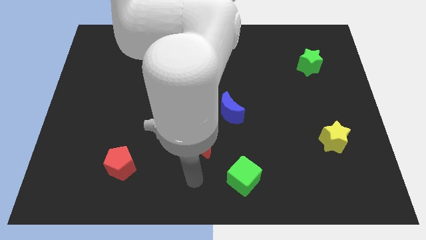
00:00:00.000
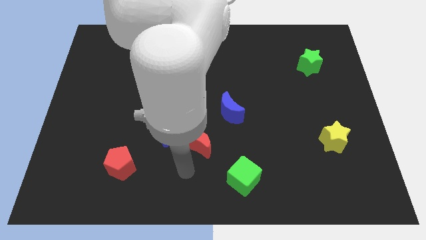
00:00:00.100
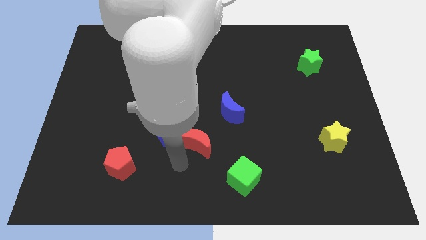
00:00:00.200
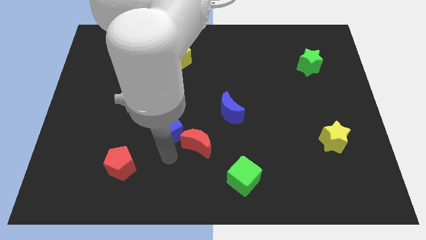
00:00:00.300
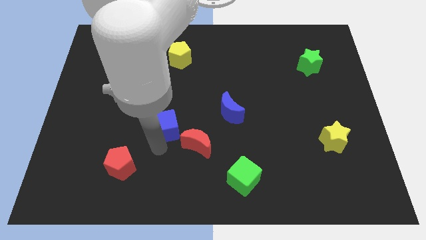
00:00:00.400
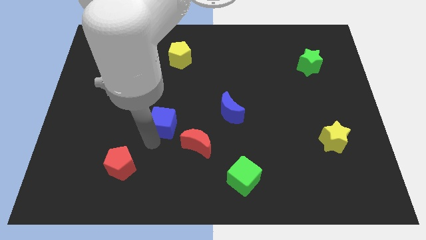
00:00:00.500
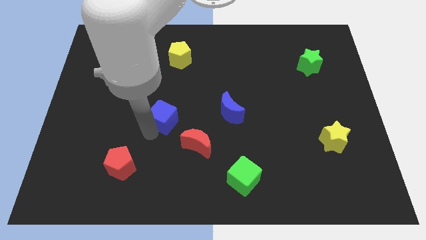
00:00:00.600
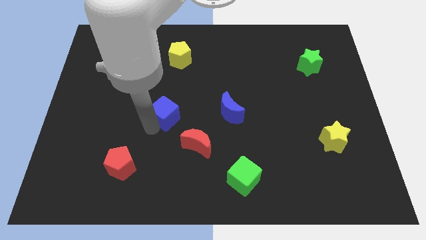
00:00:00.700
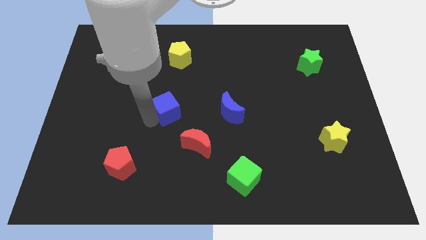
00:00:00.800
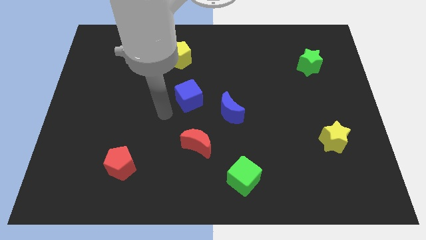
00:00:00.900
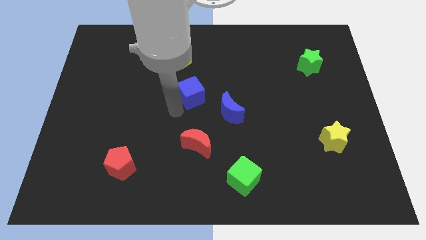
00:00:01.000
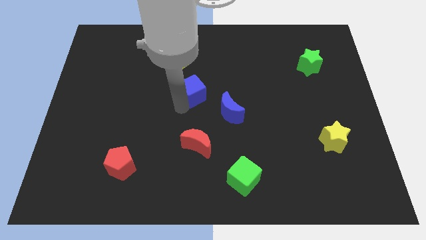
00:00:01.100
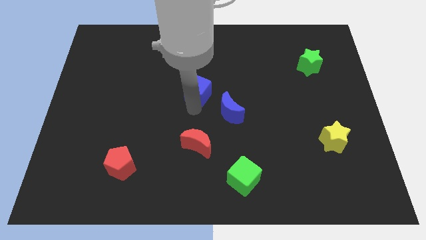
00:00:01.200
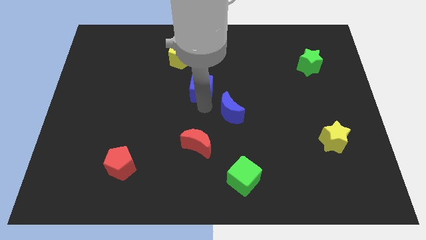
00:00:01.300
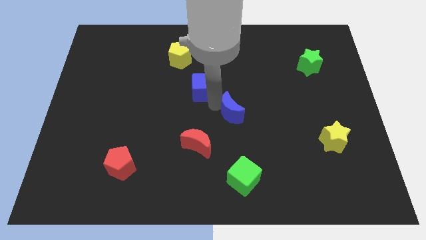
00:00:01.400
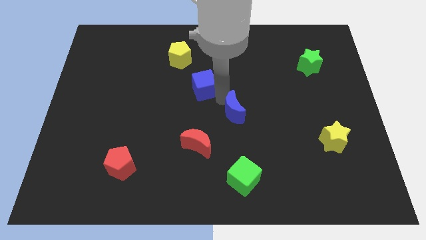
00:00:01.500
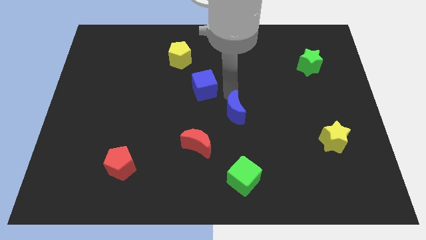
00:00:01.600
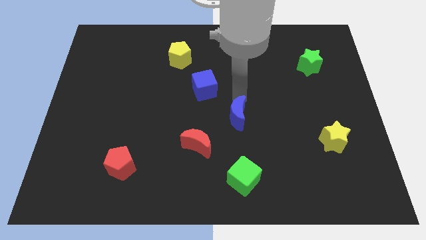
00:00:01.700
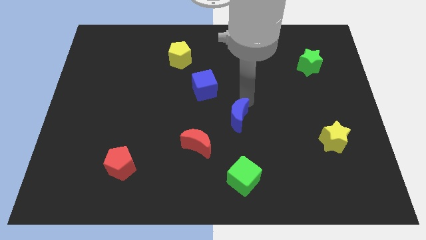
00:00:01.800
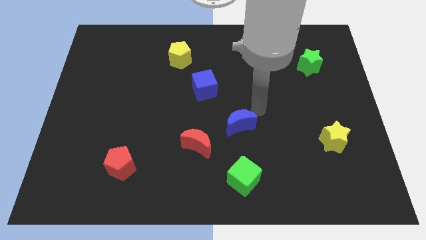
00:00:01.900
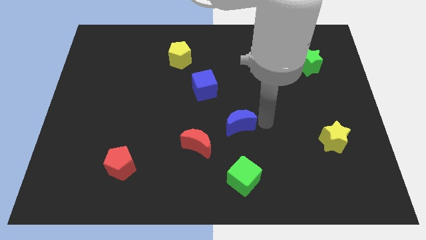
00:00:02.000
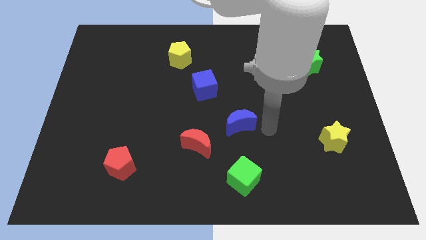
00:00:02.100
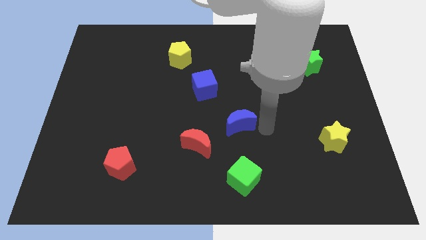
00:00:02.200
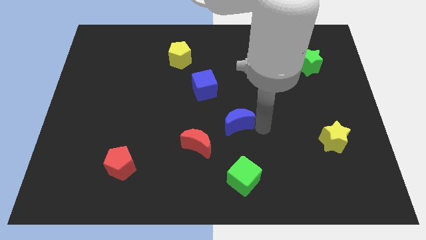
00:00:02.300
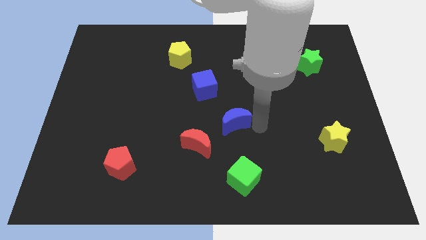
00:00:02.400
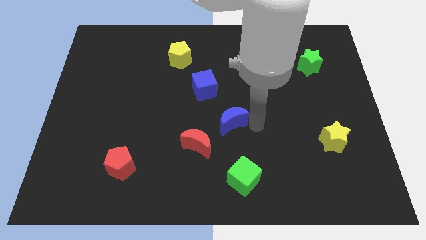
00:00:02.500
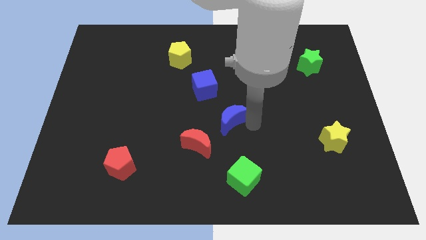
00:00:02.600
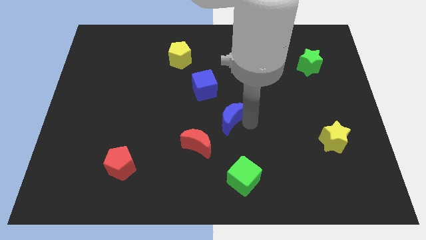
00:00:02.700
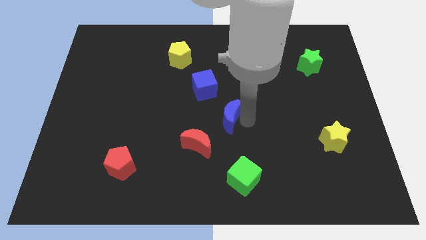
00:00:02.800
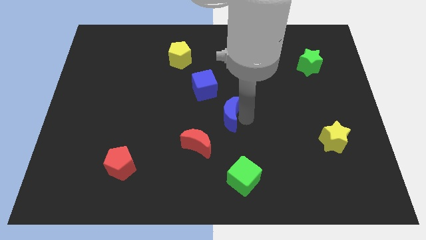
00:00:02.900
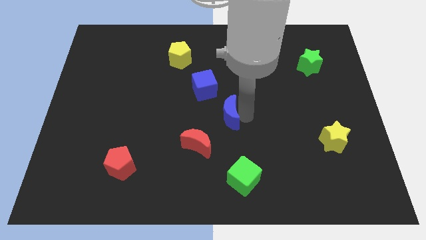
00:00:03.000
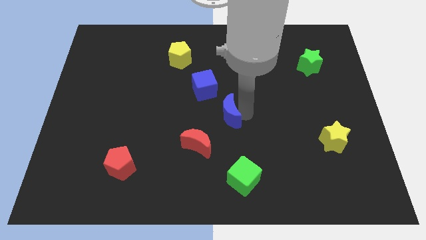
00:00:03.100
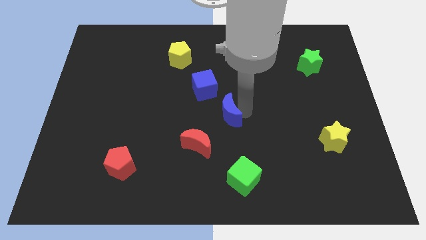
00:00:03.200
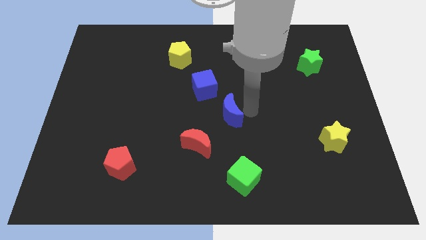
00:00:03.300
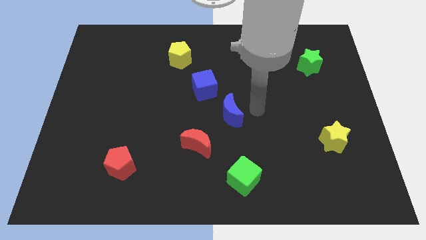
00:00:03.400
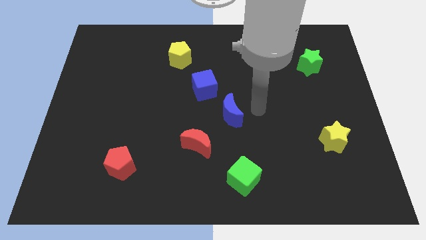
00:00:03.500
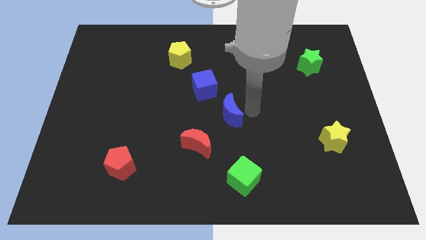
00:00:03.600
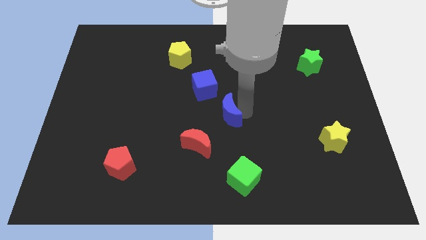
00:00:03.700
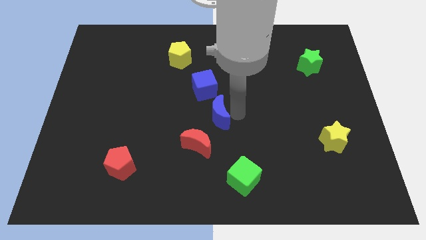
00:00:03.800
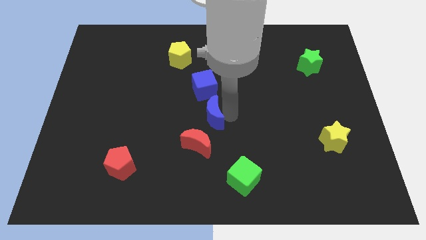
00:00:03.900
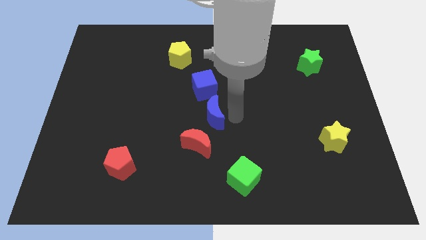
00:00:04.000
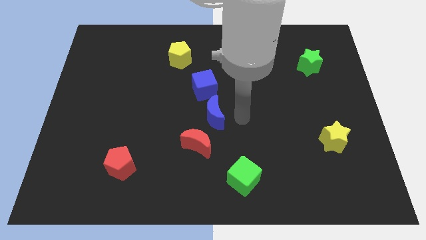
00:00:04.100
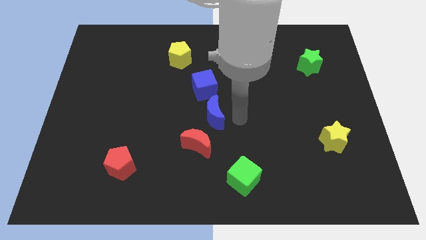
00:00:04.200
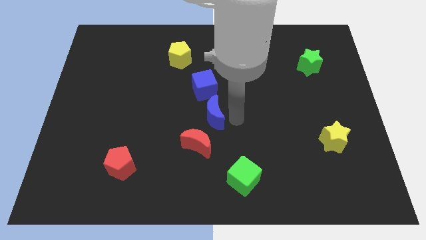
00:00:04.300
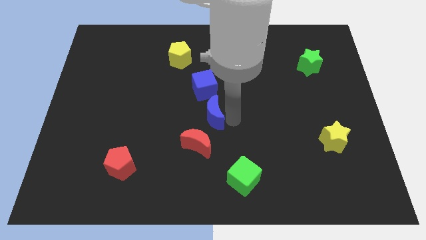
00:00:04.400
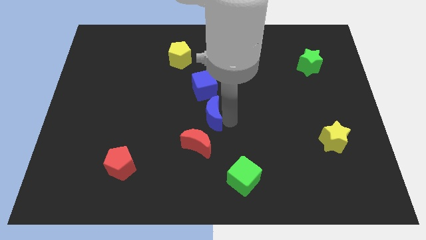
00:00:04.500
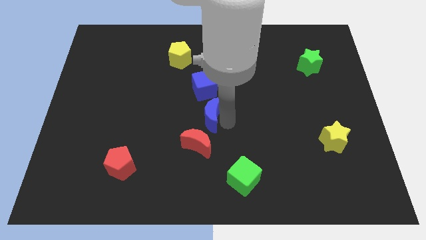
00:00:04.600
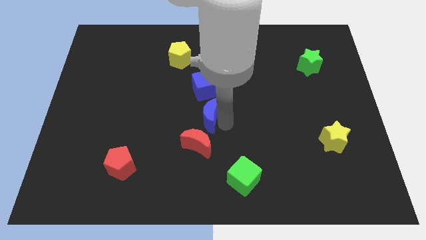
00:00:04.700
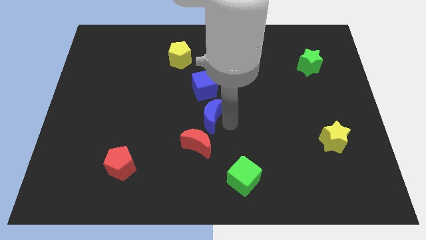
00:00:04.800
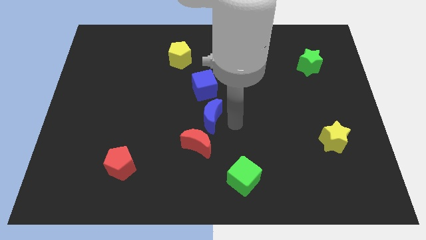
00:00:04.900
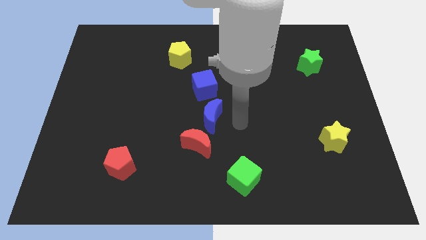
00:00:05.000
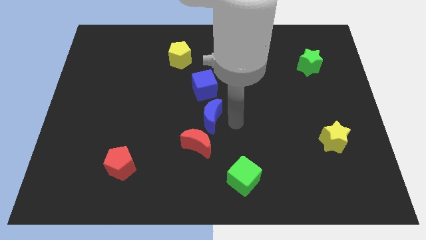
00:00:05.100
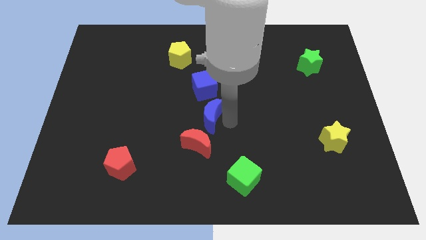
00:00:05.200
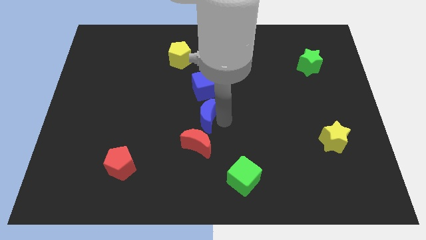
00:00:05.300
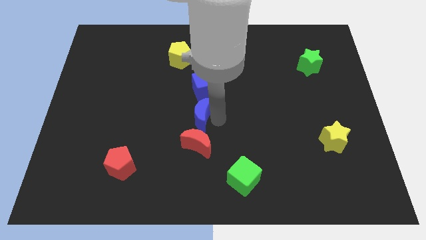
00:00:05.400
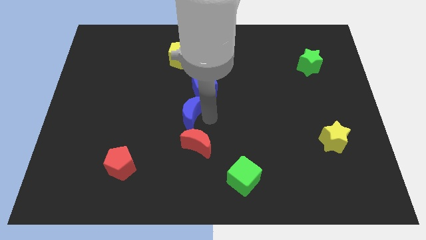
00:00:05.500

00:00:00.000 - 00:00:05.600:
slightly slide the blue moon to the left

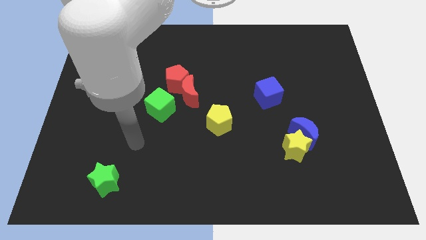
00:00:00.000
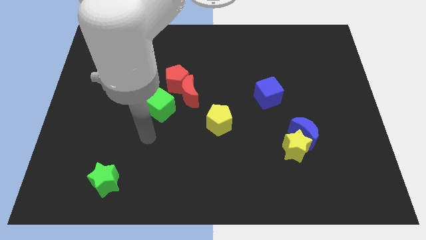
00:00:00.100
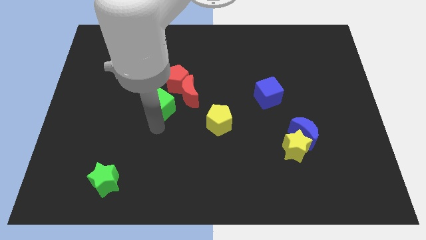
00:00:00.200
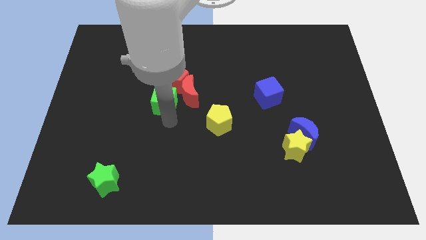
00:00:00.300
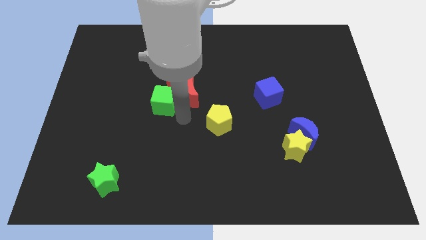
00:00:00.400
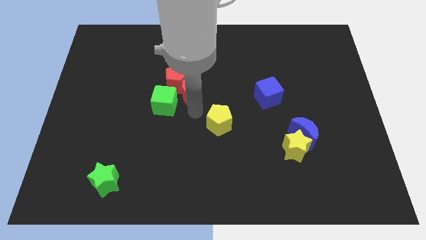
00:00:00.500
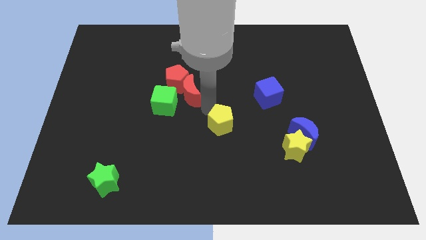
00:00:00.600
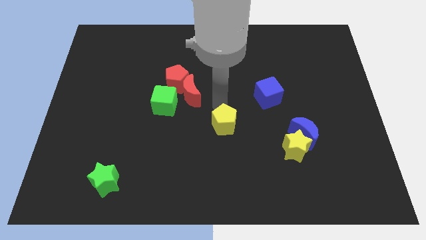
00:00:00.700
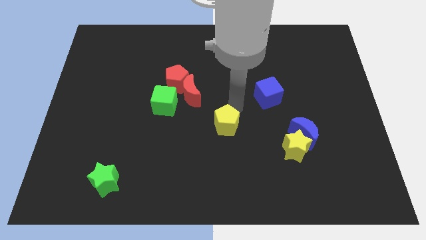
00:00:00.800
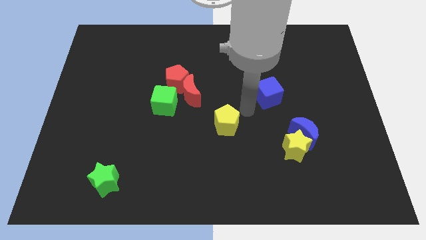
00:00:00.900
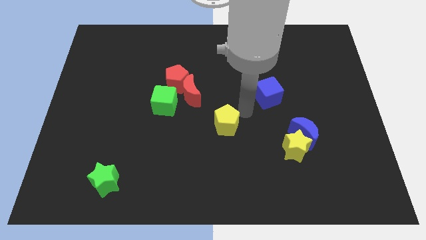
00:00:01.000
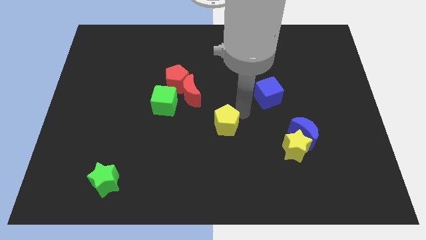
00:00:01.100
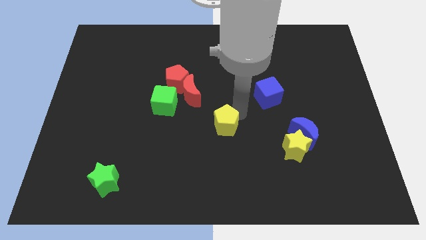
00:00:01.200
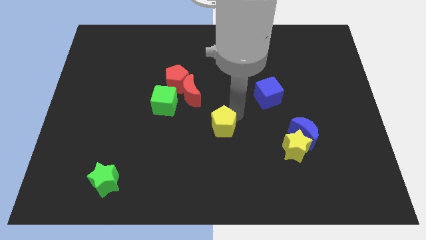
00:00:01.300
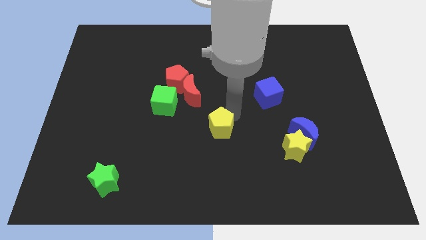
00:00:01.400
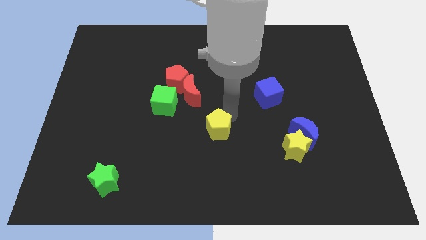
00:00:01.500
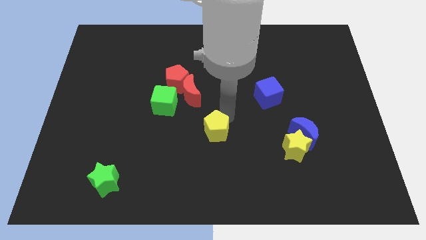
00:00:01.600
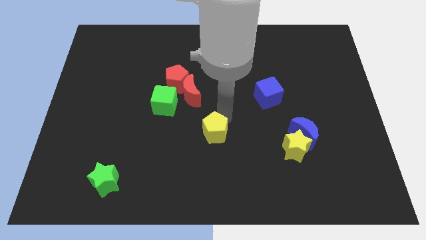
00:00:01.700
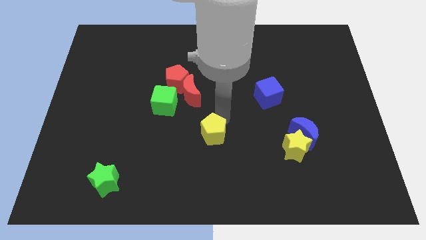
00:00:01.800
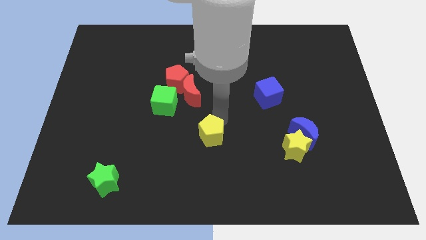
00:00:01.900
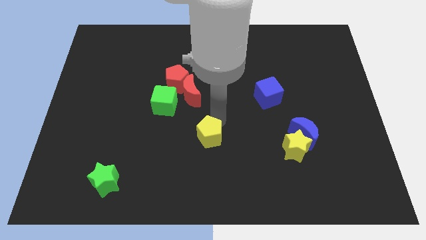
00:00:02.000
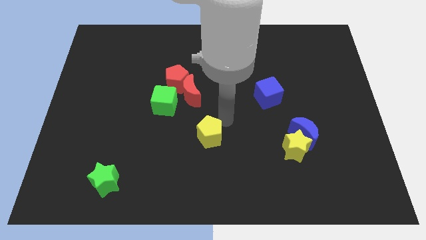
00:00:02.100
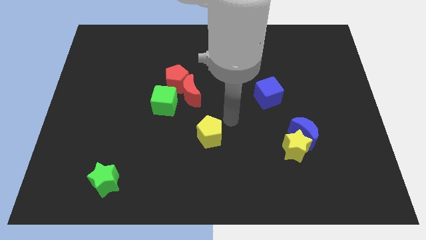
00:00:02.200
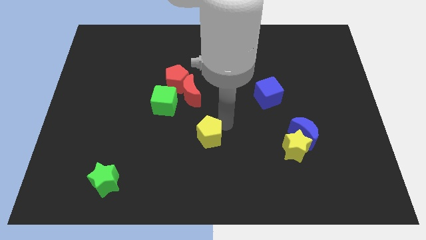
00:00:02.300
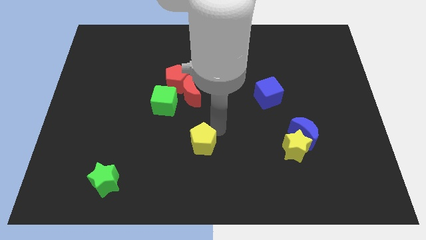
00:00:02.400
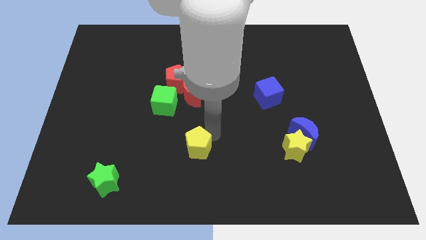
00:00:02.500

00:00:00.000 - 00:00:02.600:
move the yellow pentagon somewhat down and then left

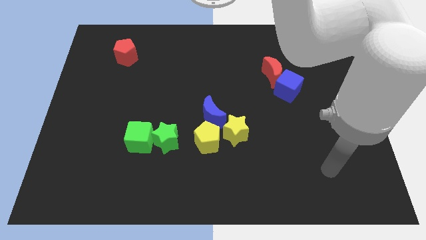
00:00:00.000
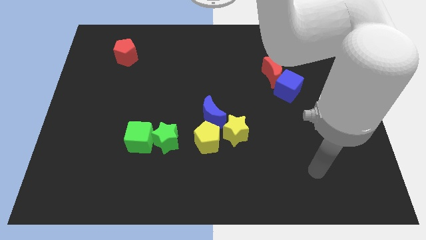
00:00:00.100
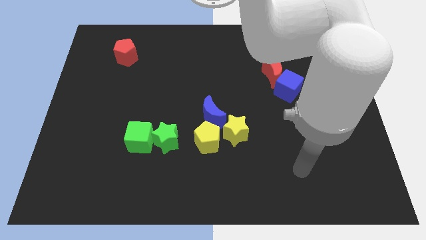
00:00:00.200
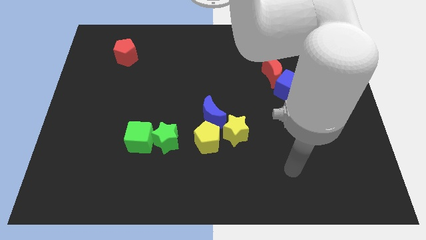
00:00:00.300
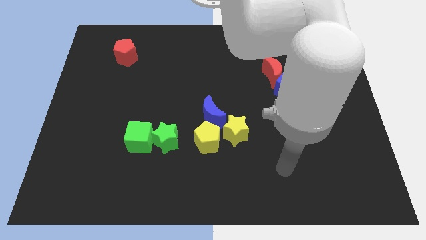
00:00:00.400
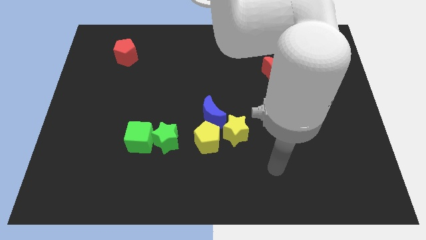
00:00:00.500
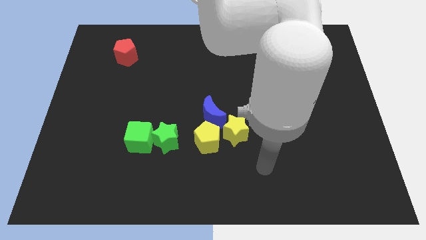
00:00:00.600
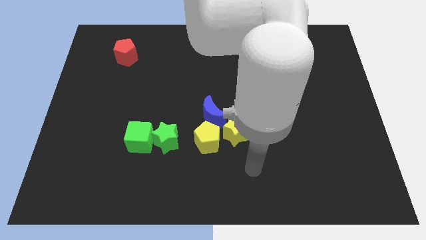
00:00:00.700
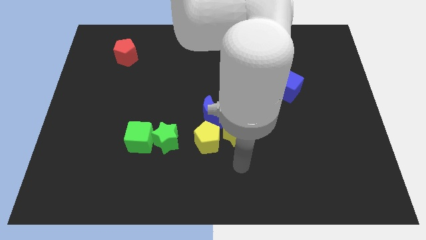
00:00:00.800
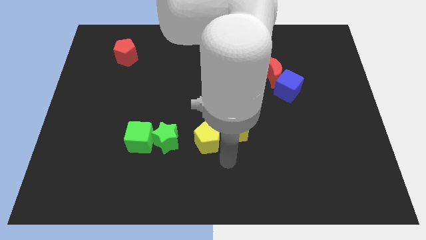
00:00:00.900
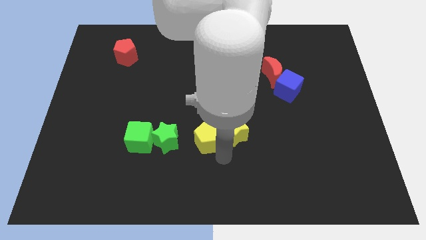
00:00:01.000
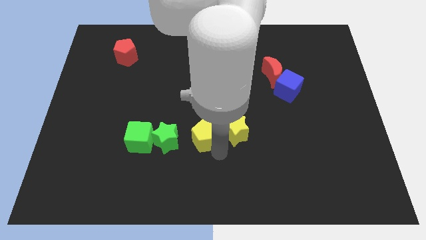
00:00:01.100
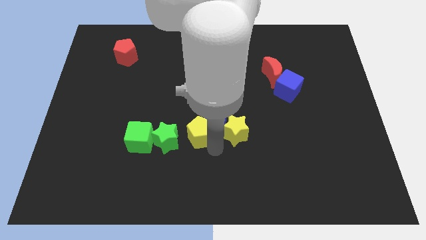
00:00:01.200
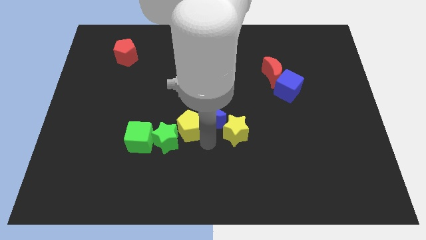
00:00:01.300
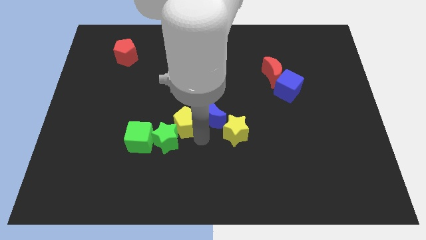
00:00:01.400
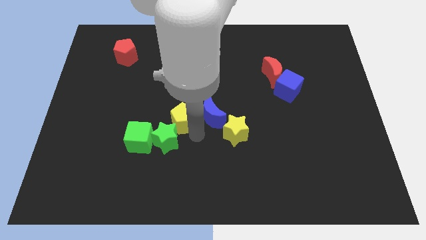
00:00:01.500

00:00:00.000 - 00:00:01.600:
slide the yellow pentagon a bit upwards and to the left diagonally
